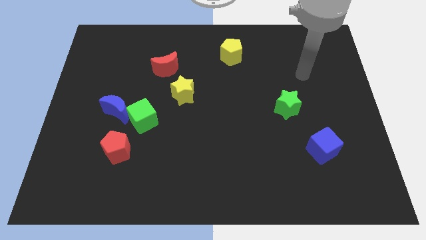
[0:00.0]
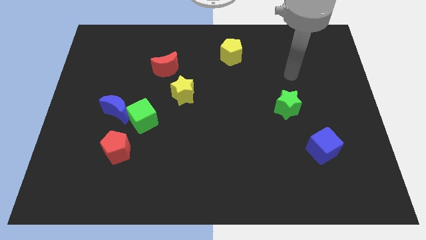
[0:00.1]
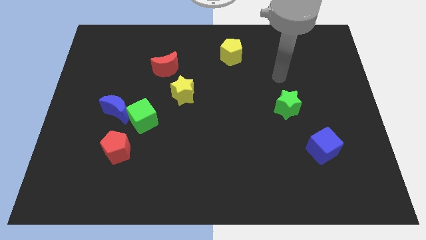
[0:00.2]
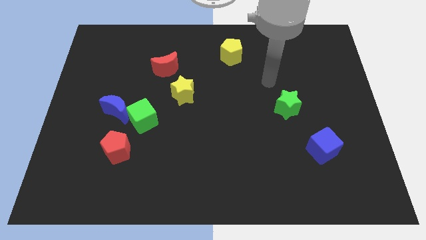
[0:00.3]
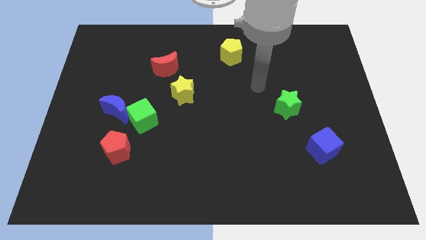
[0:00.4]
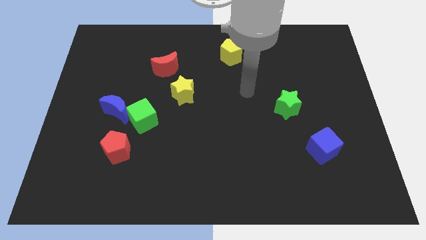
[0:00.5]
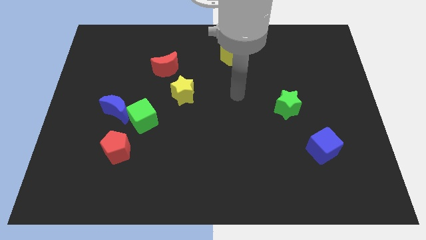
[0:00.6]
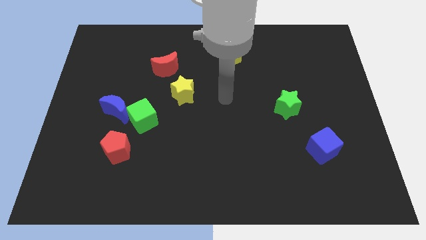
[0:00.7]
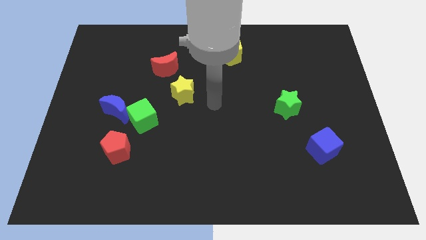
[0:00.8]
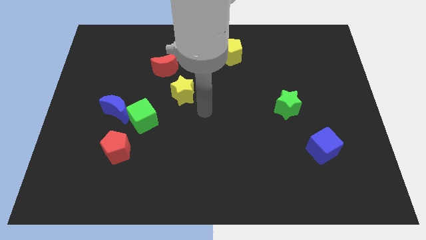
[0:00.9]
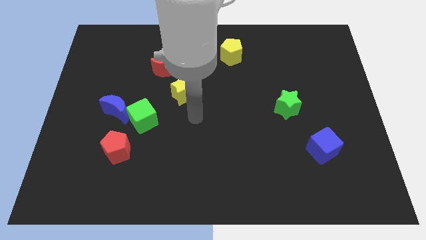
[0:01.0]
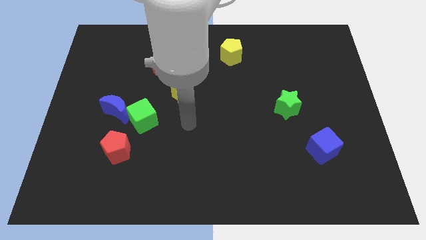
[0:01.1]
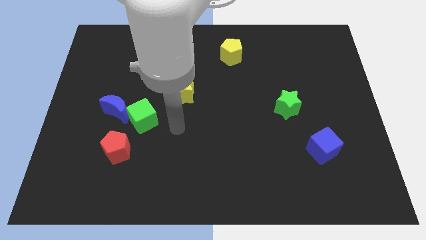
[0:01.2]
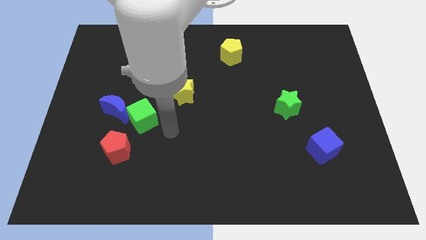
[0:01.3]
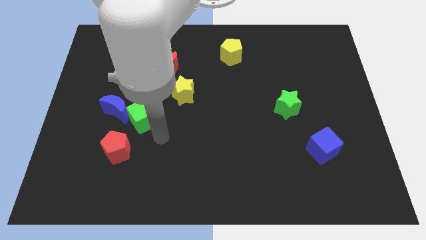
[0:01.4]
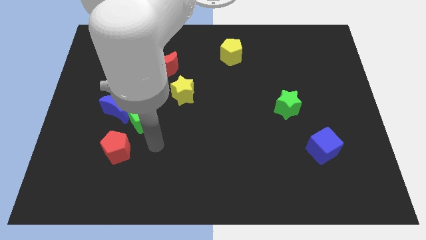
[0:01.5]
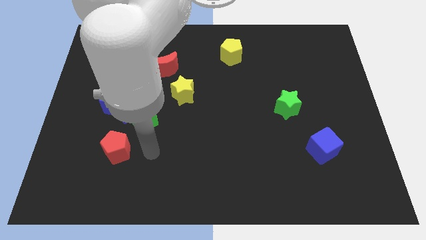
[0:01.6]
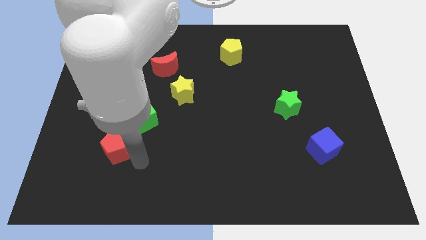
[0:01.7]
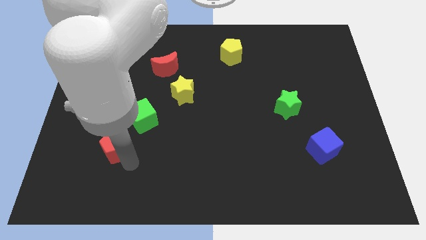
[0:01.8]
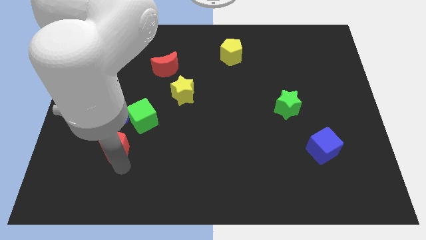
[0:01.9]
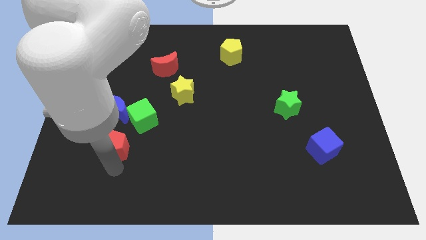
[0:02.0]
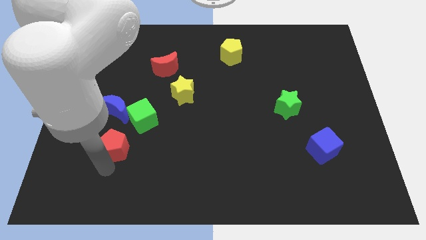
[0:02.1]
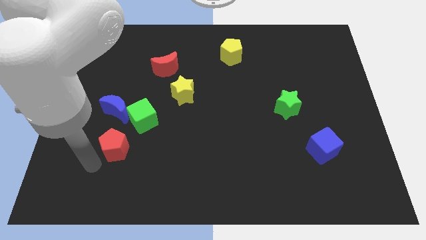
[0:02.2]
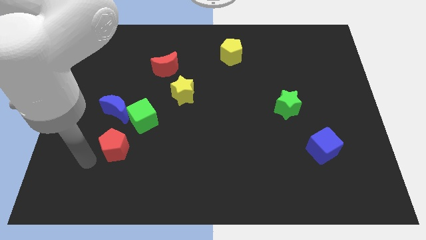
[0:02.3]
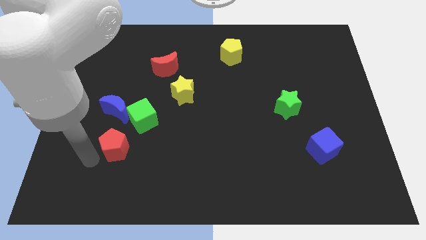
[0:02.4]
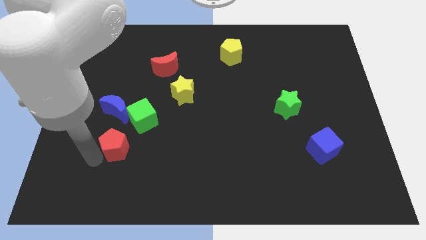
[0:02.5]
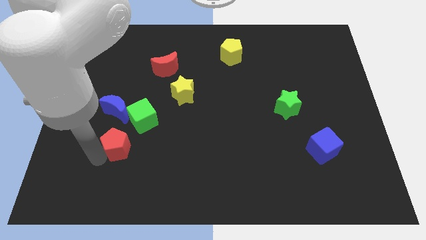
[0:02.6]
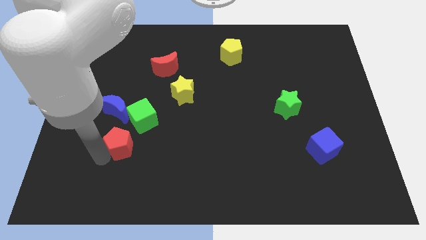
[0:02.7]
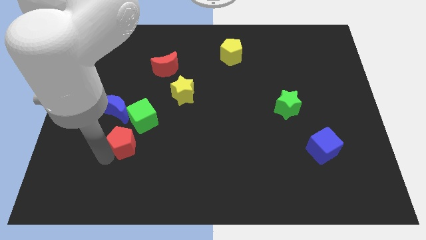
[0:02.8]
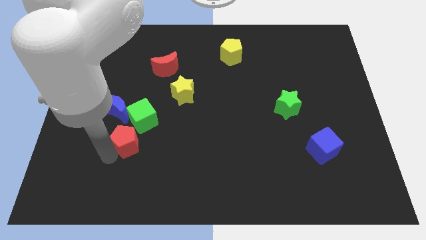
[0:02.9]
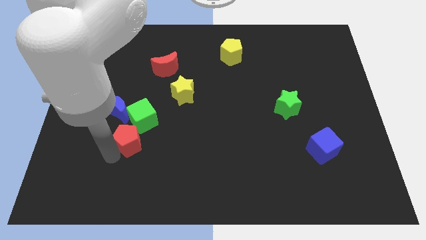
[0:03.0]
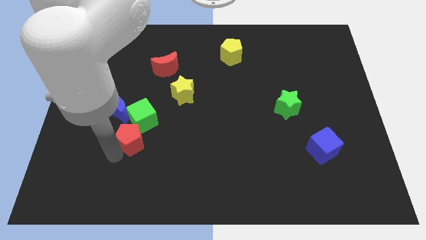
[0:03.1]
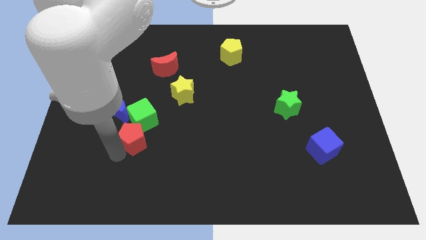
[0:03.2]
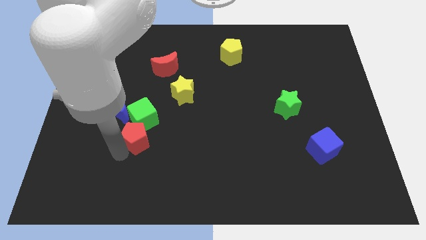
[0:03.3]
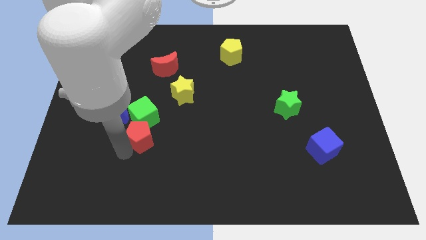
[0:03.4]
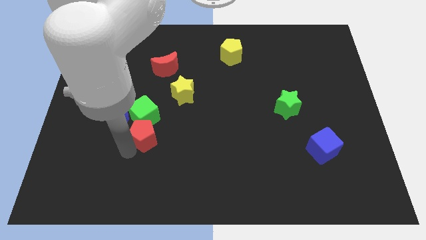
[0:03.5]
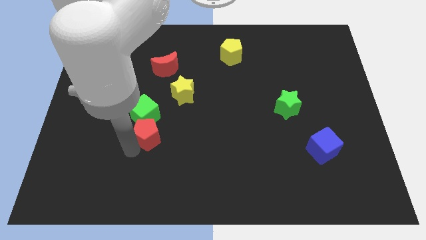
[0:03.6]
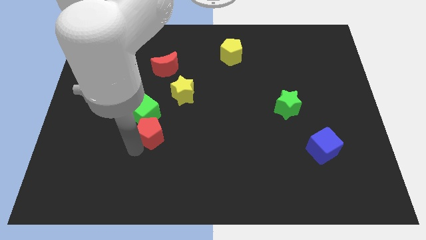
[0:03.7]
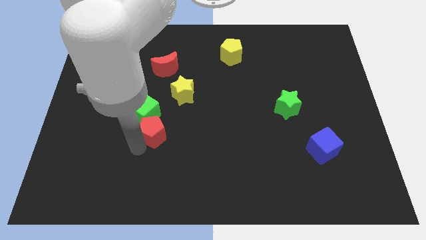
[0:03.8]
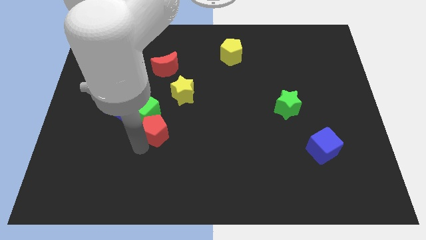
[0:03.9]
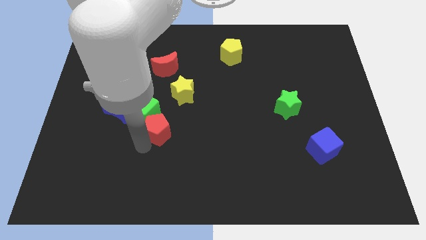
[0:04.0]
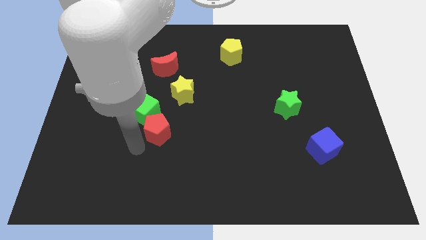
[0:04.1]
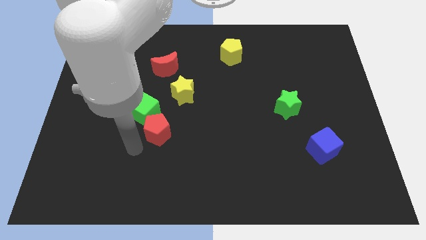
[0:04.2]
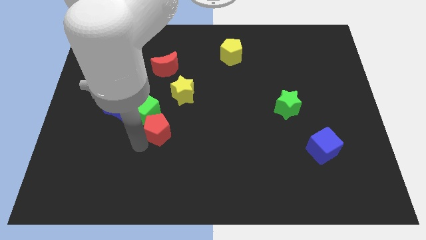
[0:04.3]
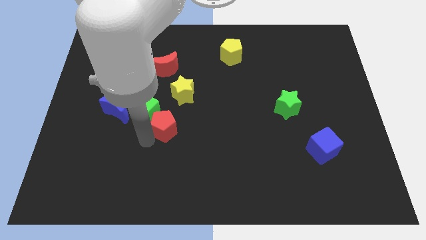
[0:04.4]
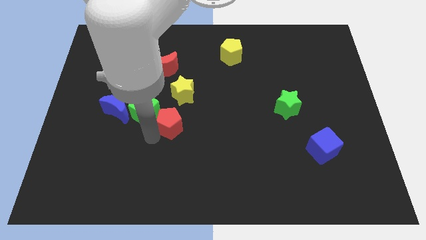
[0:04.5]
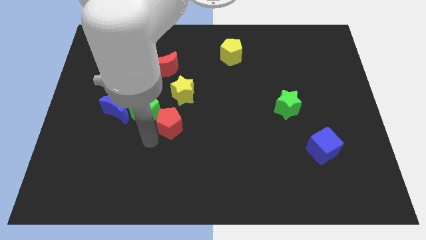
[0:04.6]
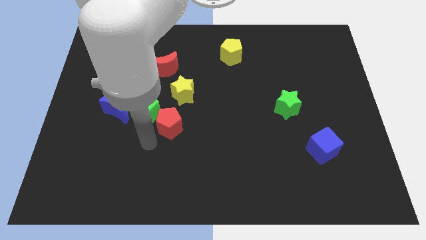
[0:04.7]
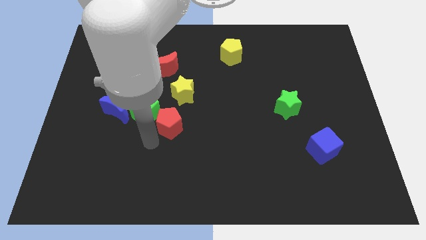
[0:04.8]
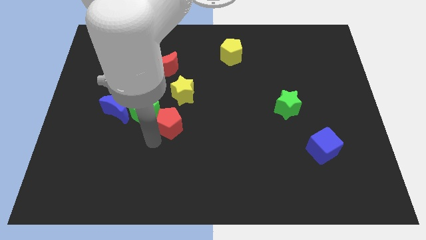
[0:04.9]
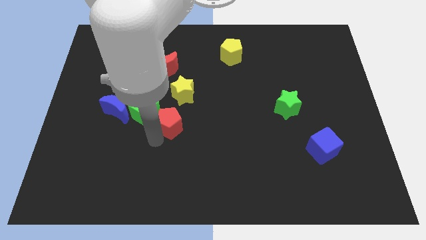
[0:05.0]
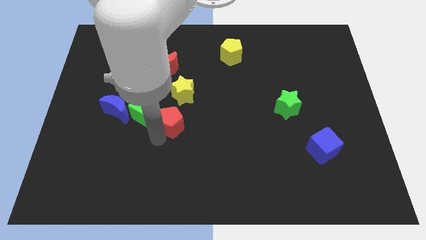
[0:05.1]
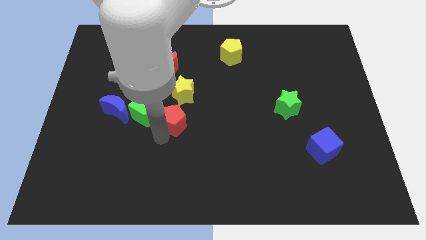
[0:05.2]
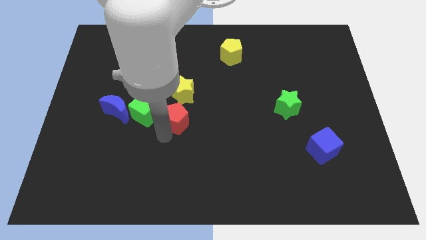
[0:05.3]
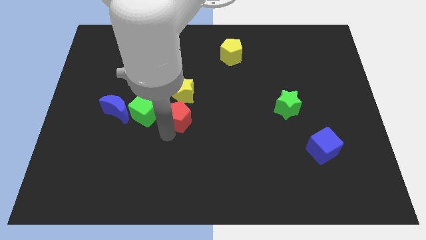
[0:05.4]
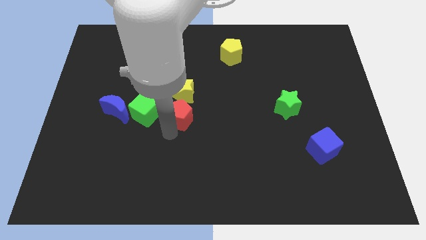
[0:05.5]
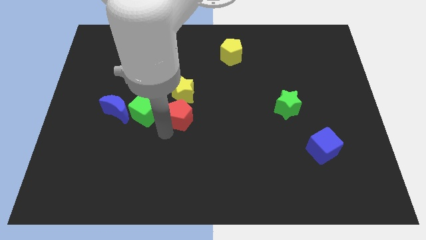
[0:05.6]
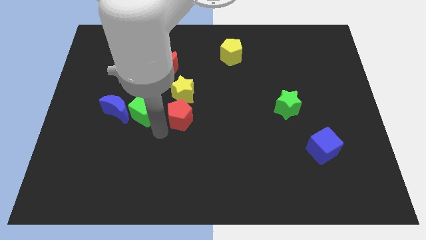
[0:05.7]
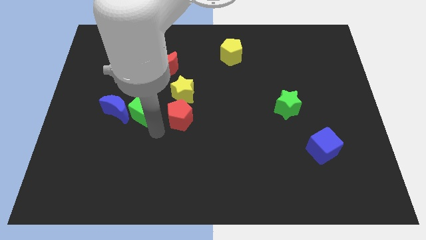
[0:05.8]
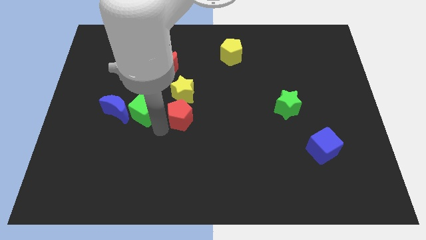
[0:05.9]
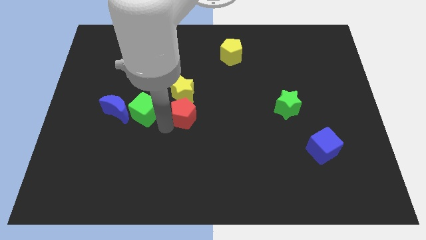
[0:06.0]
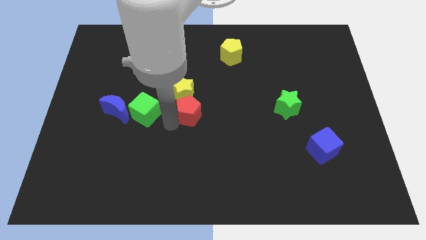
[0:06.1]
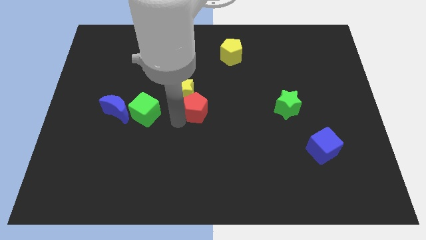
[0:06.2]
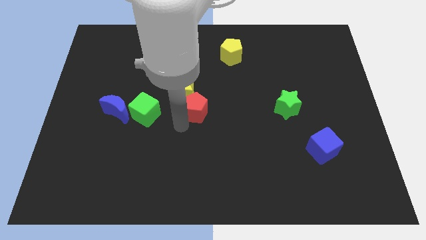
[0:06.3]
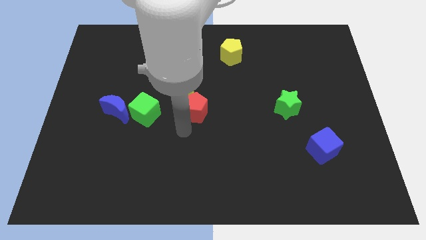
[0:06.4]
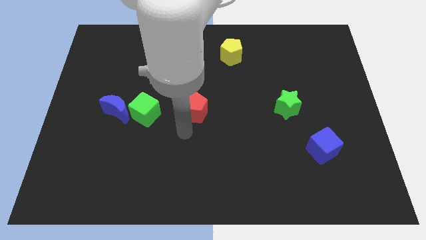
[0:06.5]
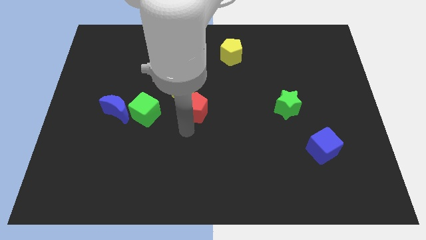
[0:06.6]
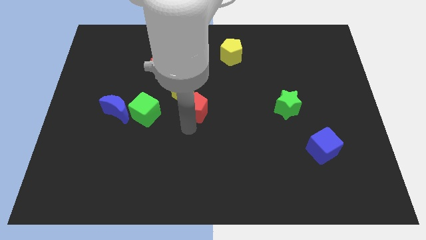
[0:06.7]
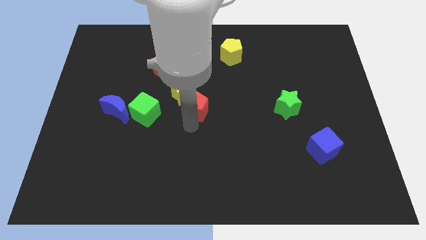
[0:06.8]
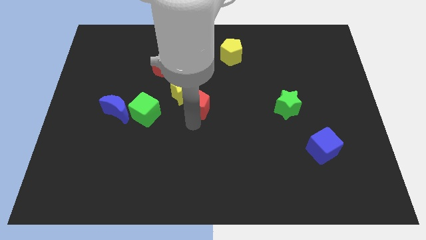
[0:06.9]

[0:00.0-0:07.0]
move the red pentagon up and to the right

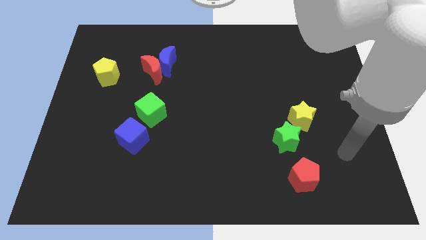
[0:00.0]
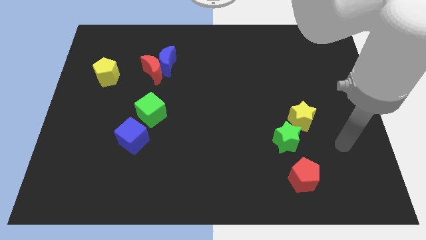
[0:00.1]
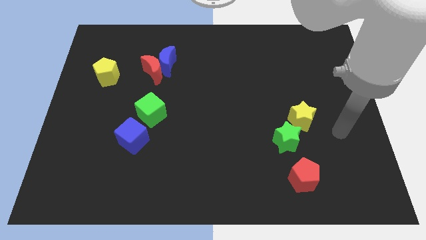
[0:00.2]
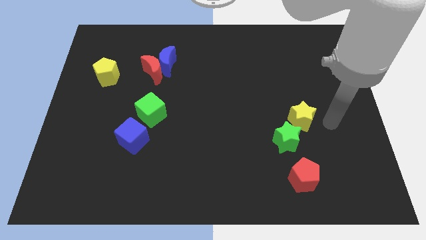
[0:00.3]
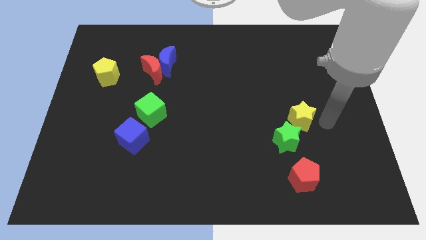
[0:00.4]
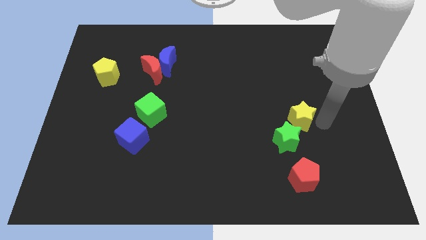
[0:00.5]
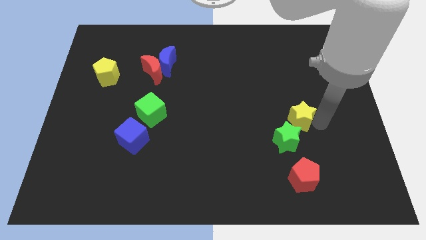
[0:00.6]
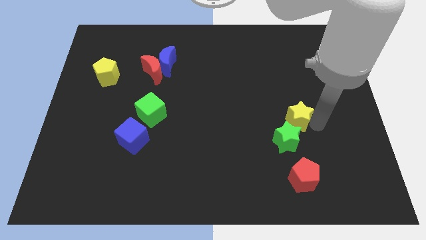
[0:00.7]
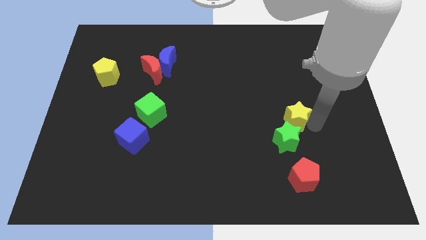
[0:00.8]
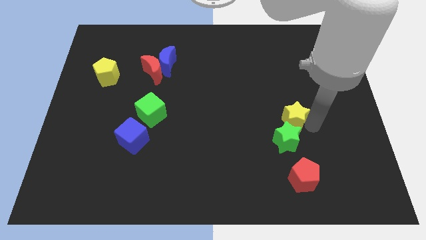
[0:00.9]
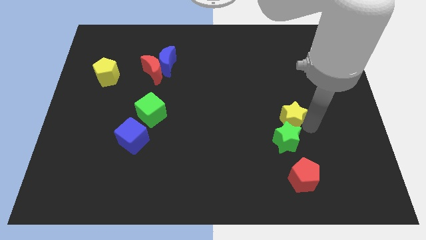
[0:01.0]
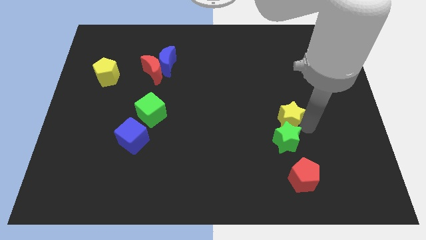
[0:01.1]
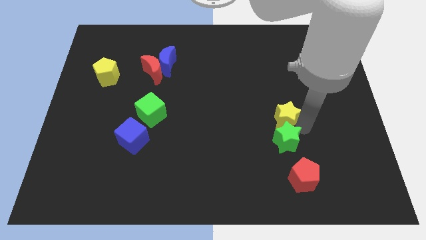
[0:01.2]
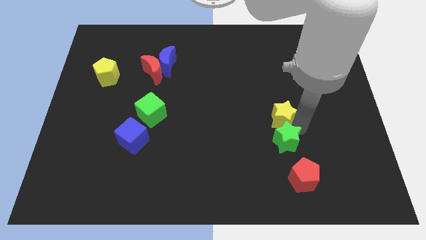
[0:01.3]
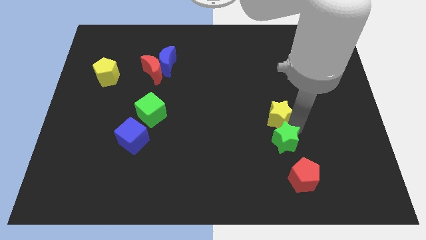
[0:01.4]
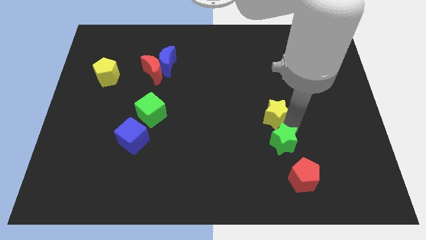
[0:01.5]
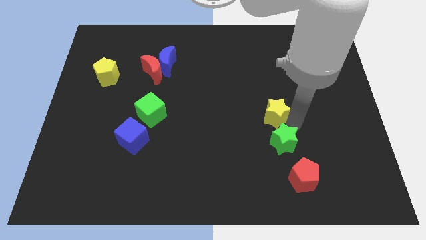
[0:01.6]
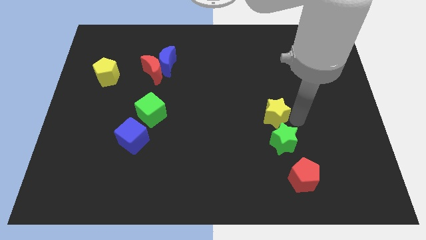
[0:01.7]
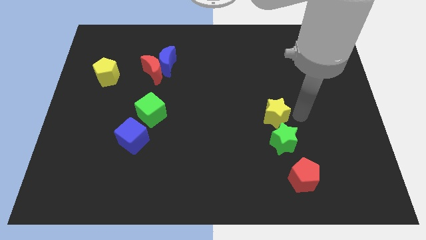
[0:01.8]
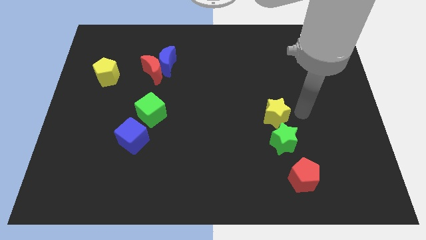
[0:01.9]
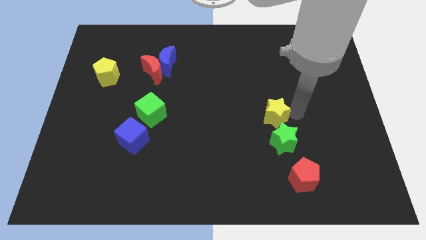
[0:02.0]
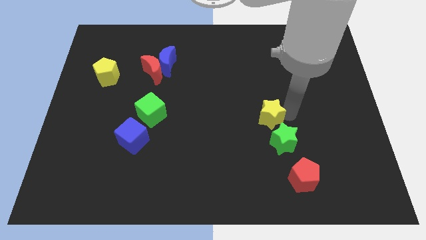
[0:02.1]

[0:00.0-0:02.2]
slide the yellow star to the left a little
